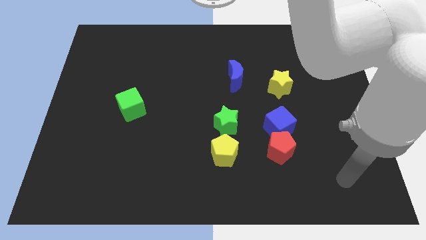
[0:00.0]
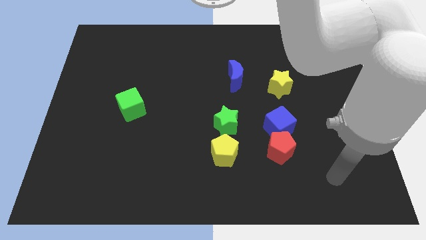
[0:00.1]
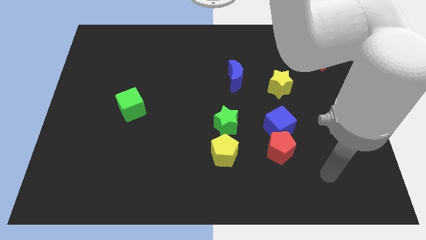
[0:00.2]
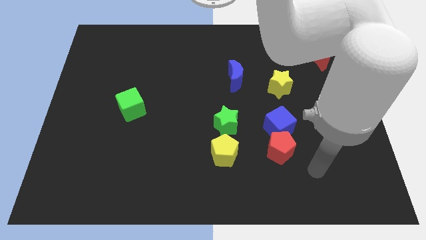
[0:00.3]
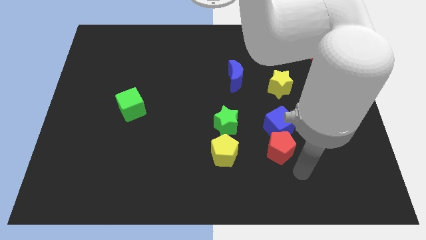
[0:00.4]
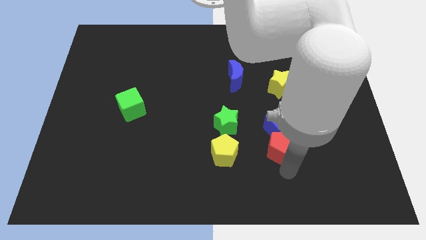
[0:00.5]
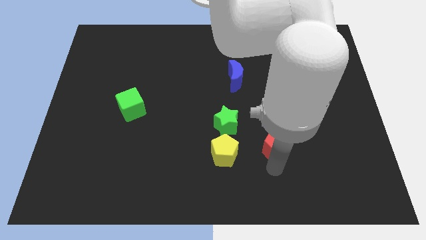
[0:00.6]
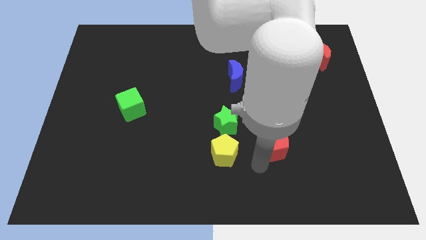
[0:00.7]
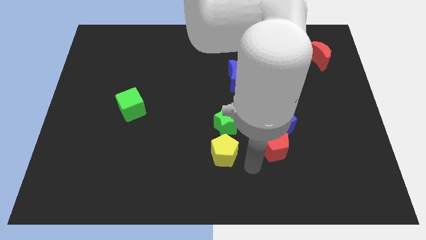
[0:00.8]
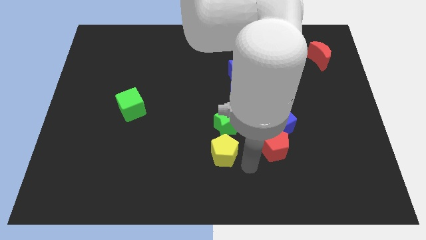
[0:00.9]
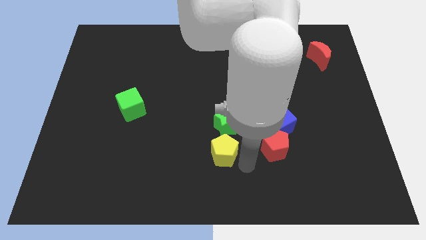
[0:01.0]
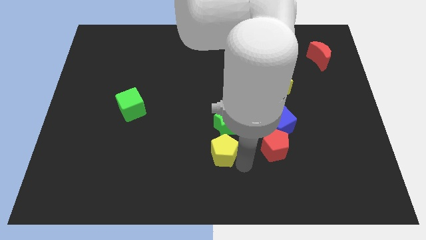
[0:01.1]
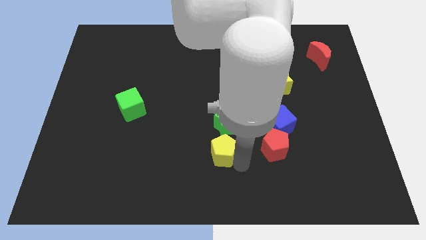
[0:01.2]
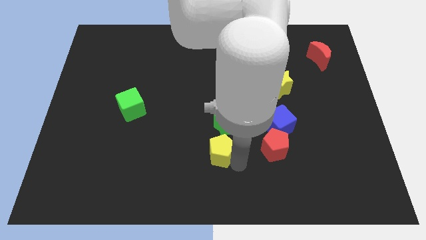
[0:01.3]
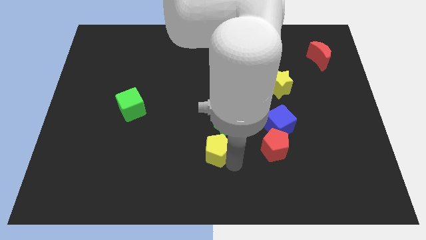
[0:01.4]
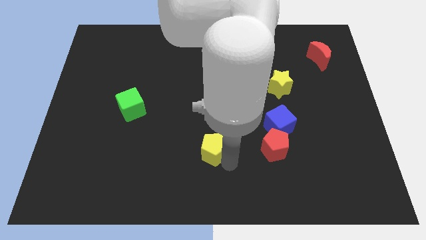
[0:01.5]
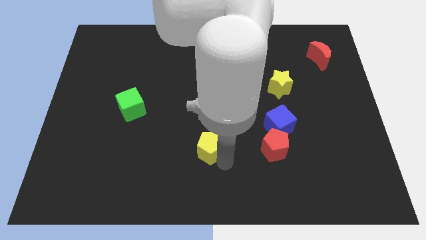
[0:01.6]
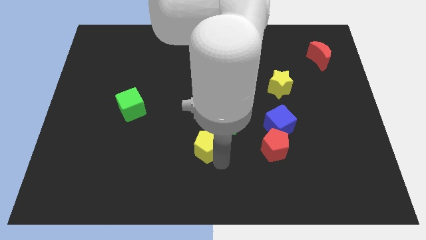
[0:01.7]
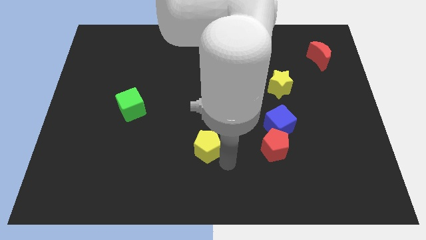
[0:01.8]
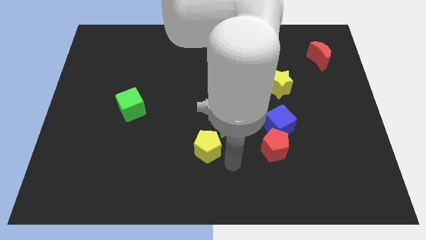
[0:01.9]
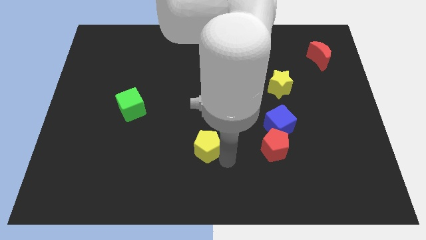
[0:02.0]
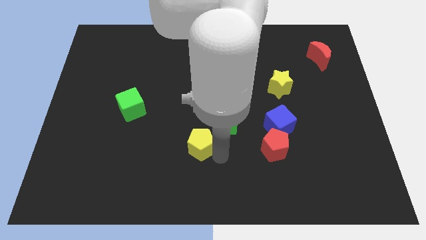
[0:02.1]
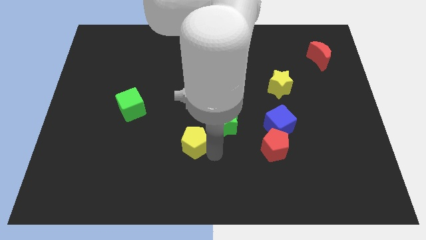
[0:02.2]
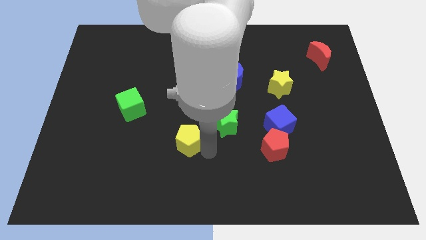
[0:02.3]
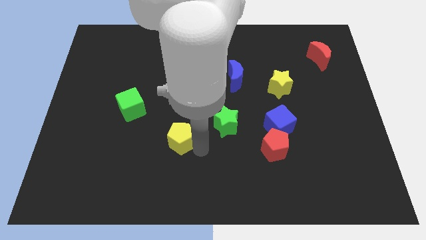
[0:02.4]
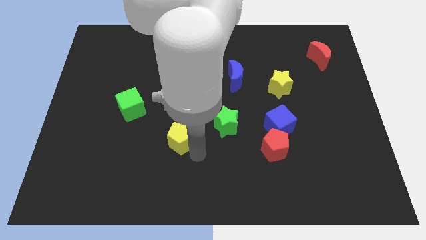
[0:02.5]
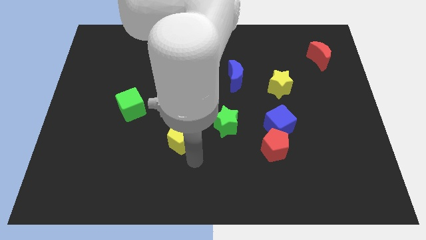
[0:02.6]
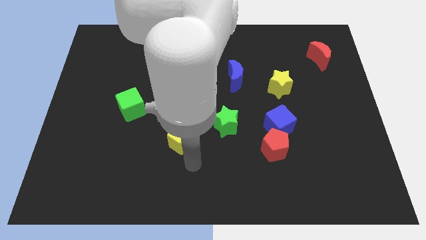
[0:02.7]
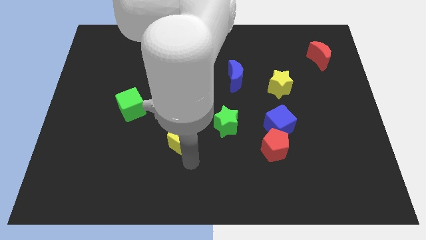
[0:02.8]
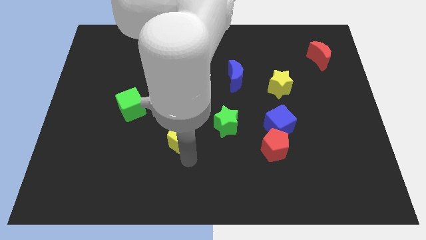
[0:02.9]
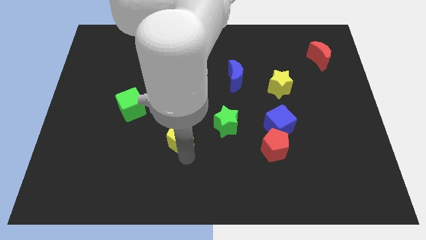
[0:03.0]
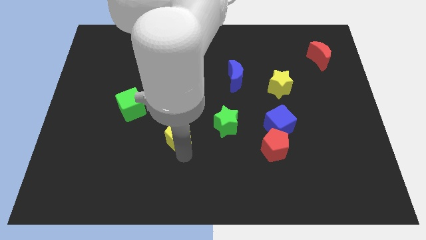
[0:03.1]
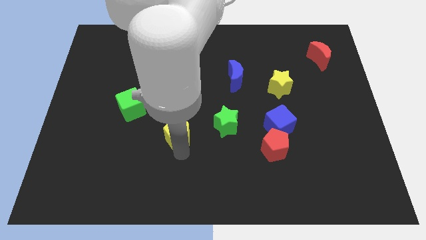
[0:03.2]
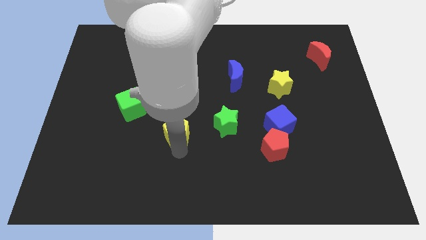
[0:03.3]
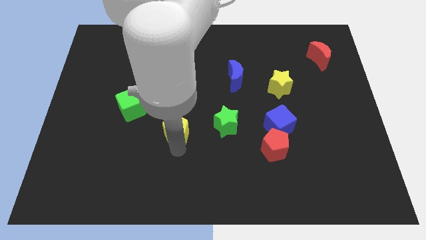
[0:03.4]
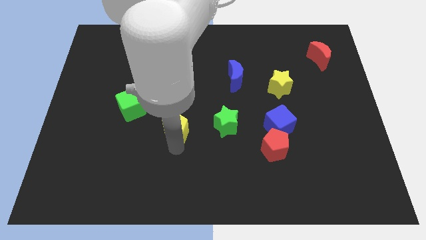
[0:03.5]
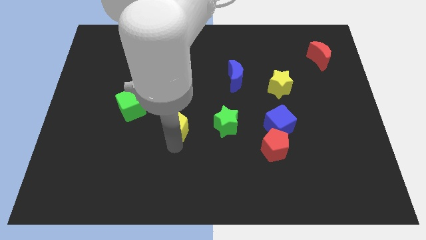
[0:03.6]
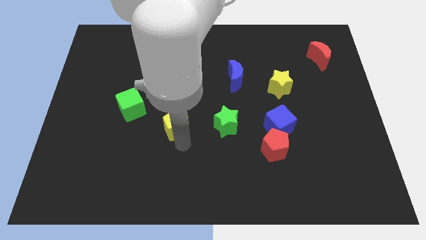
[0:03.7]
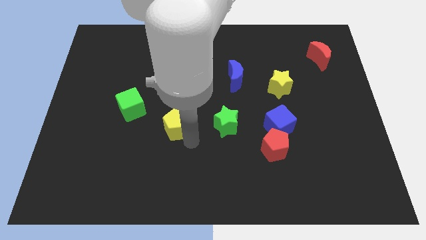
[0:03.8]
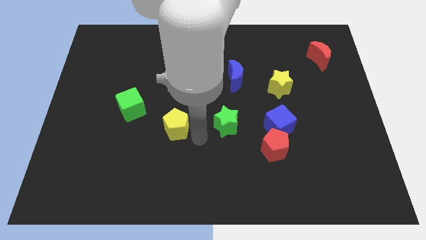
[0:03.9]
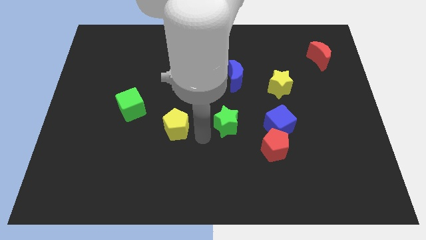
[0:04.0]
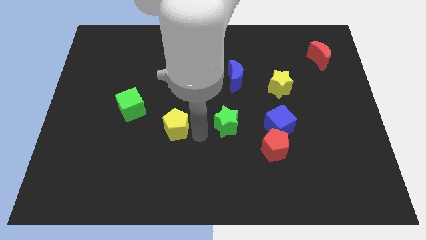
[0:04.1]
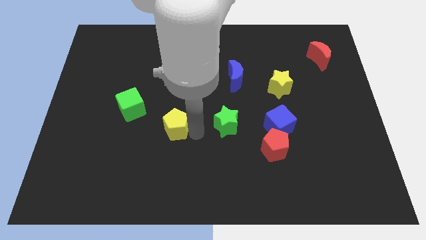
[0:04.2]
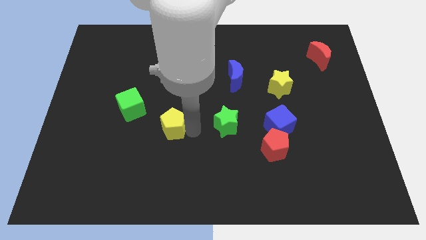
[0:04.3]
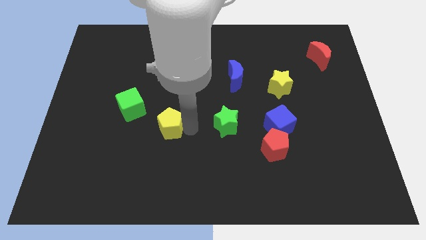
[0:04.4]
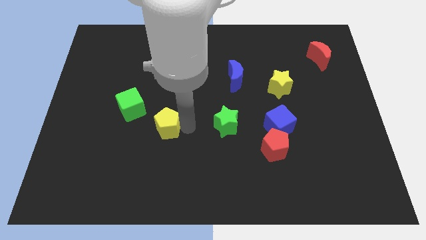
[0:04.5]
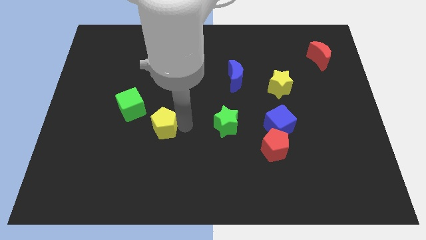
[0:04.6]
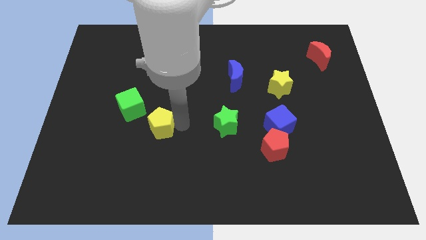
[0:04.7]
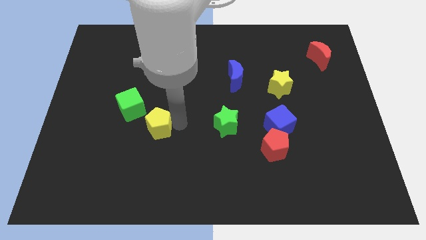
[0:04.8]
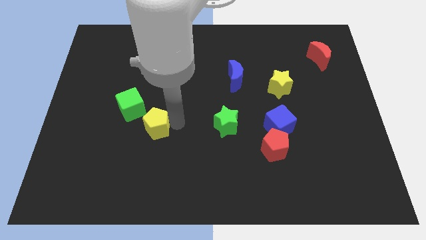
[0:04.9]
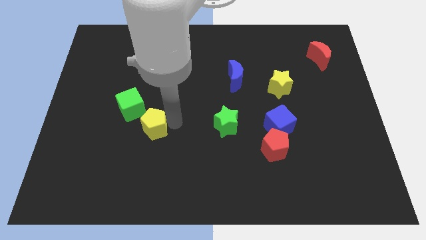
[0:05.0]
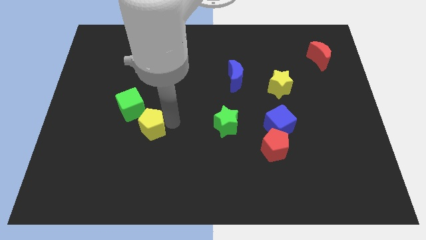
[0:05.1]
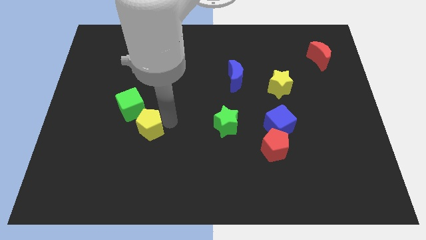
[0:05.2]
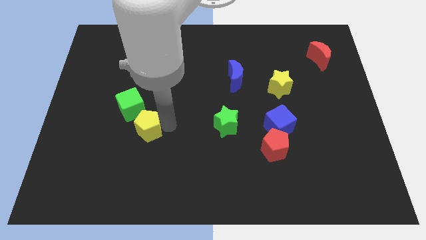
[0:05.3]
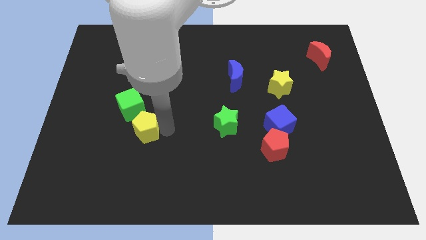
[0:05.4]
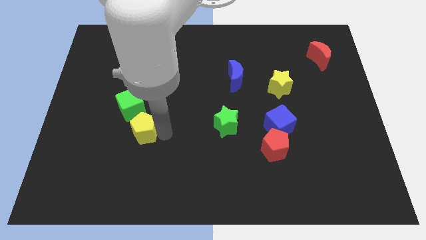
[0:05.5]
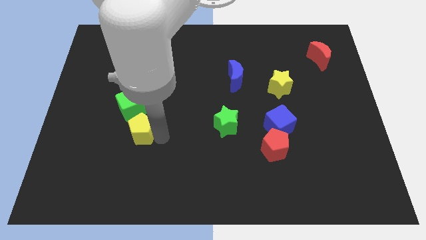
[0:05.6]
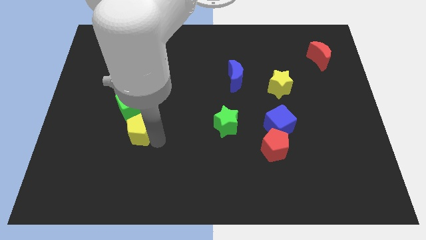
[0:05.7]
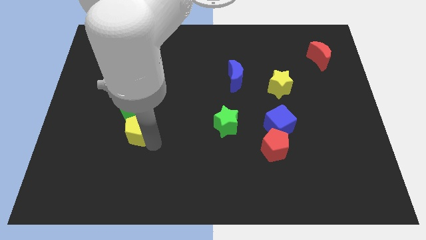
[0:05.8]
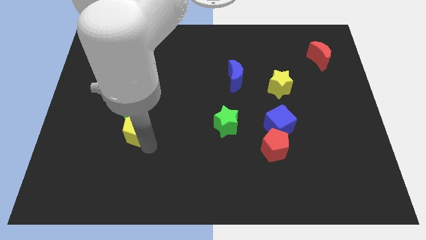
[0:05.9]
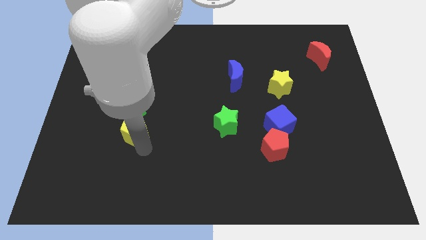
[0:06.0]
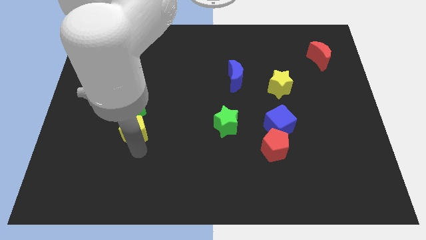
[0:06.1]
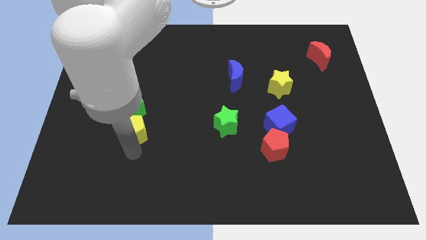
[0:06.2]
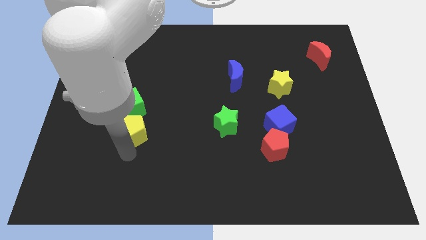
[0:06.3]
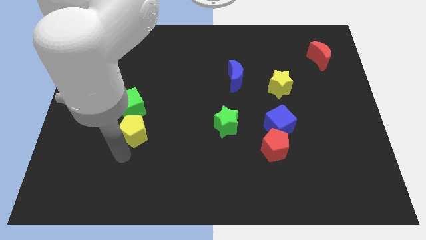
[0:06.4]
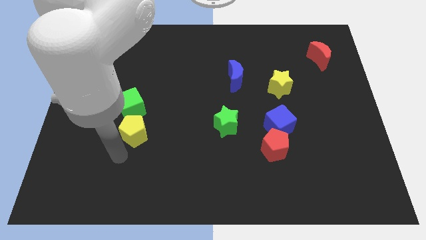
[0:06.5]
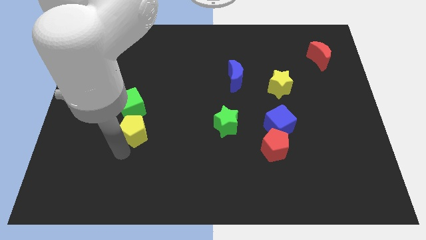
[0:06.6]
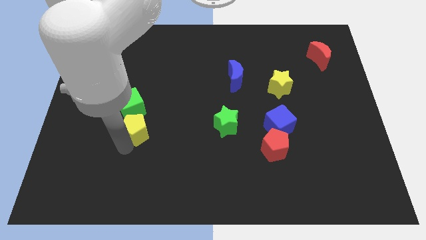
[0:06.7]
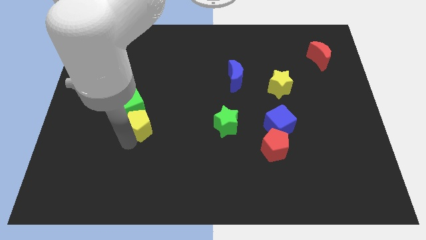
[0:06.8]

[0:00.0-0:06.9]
push the yellow pentagon next to the green cube

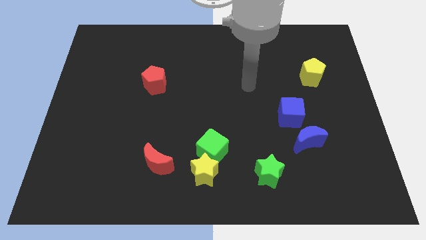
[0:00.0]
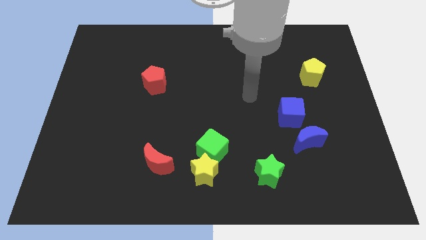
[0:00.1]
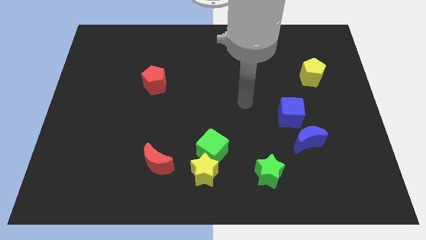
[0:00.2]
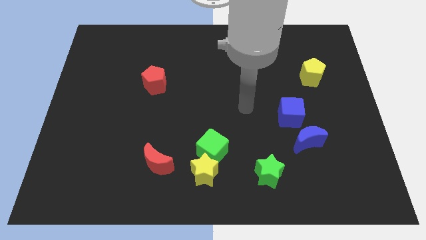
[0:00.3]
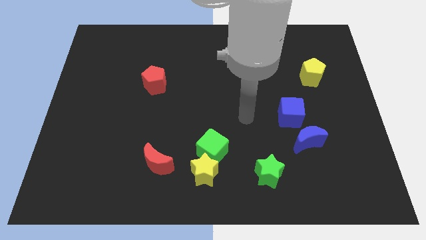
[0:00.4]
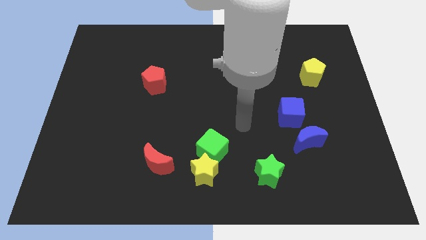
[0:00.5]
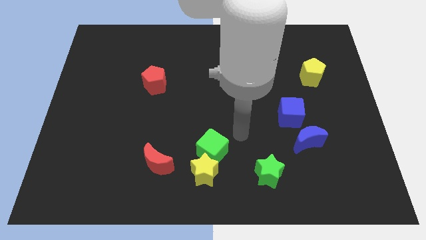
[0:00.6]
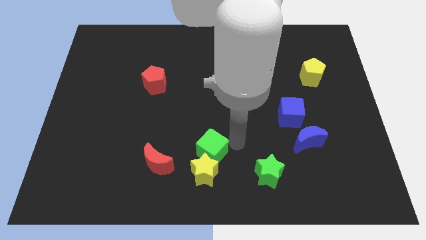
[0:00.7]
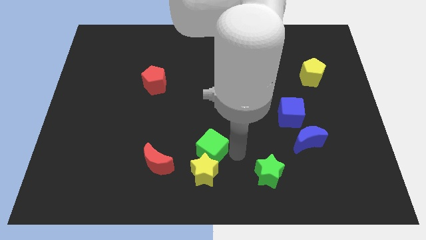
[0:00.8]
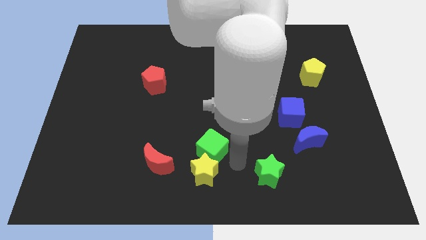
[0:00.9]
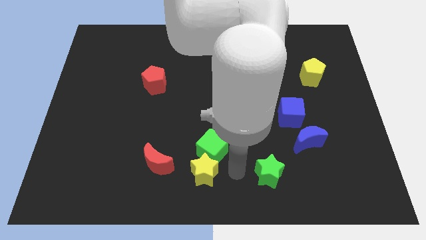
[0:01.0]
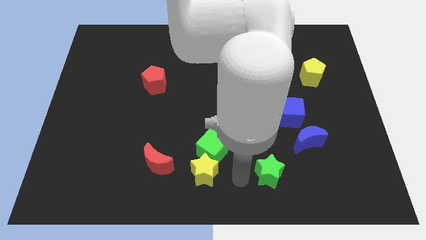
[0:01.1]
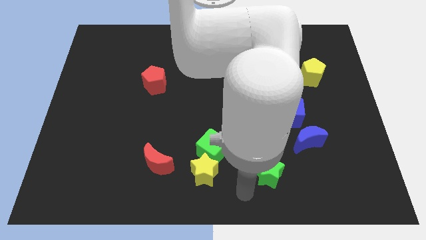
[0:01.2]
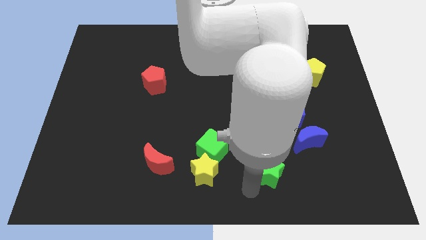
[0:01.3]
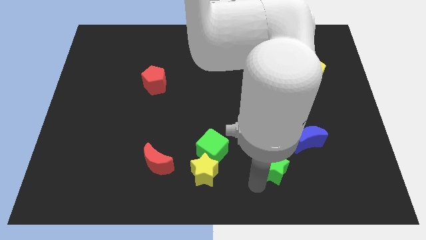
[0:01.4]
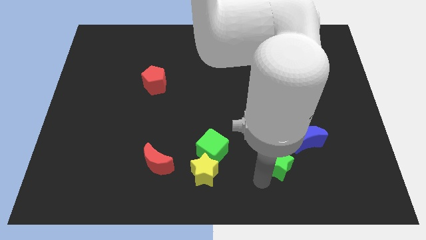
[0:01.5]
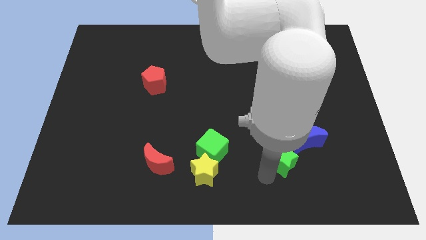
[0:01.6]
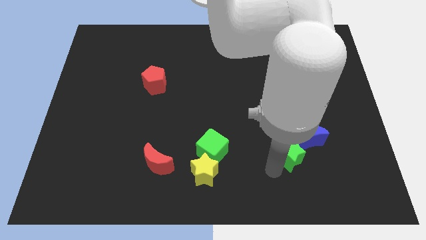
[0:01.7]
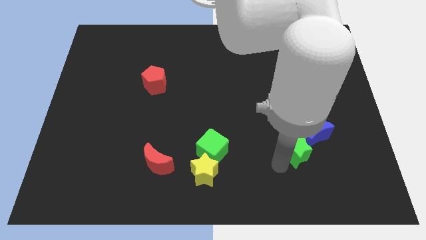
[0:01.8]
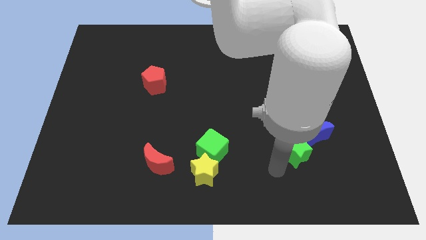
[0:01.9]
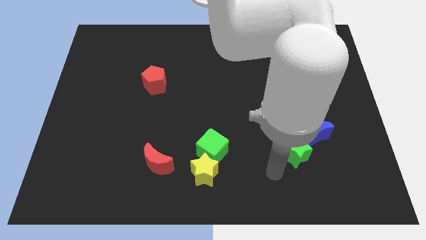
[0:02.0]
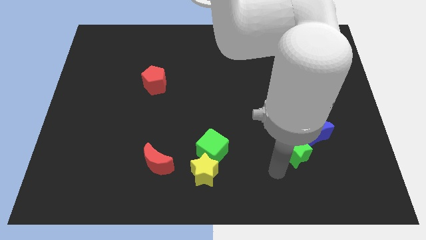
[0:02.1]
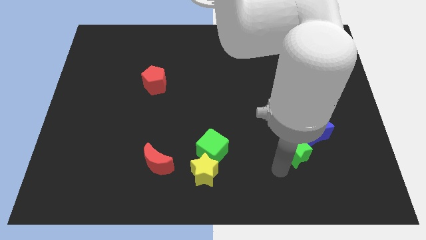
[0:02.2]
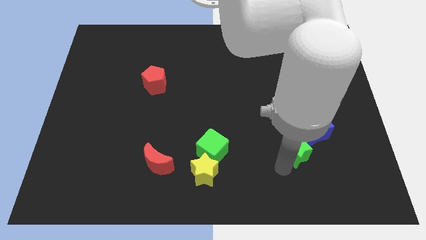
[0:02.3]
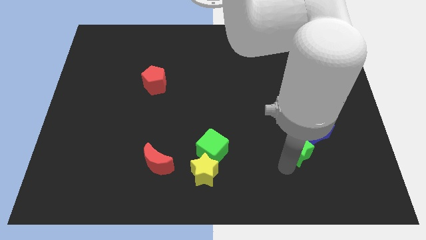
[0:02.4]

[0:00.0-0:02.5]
push the green star close to the blue moon
